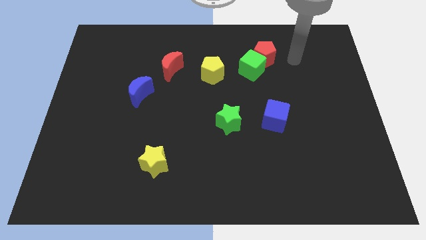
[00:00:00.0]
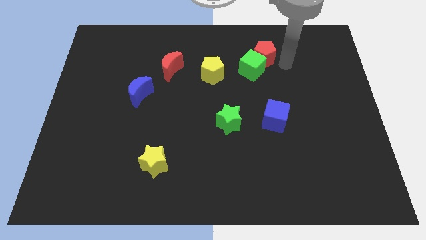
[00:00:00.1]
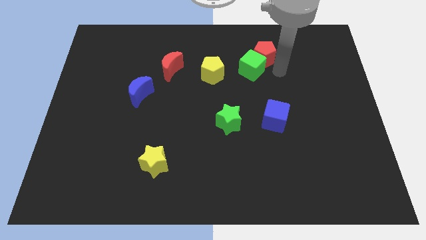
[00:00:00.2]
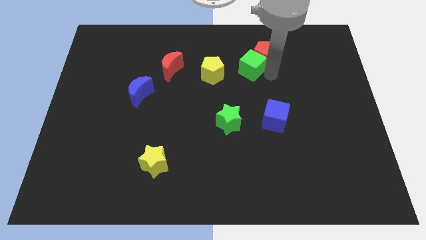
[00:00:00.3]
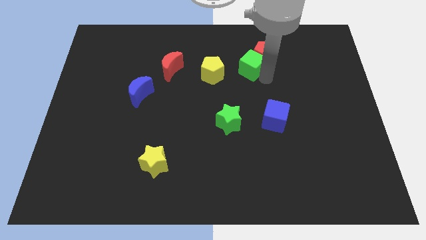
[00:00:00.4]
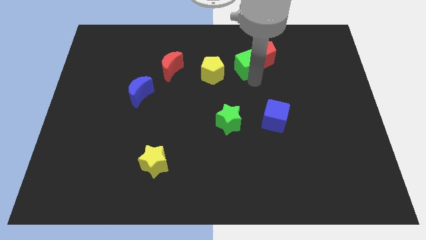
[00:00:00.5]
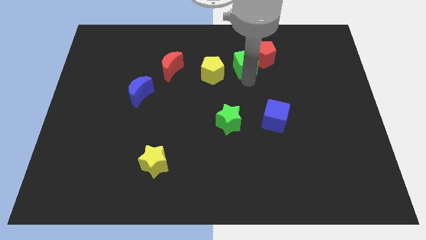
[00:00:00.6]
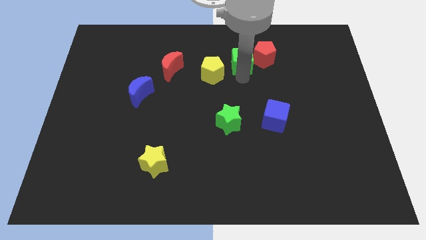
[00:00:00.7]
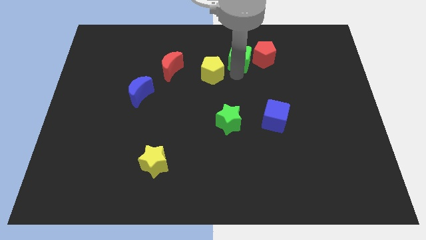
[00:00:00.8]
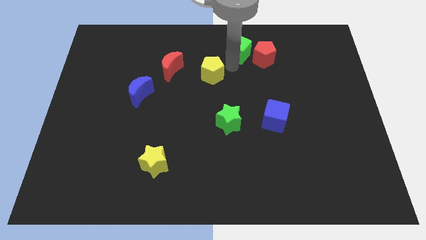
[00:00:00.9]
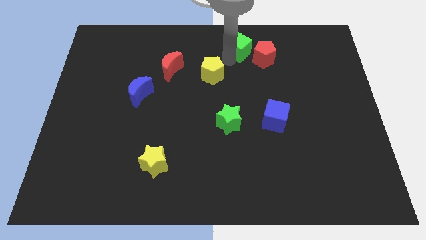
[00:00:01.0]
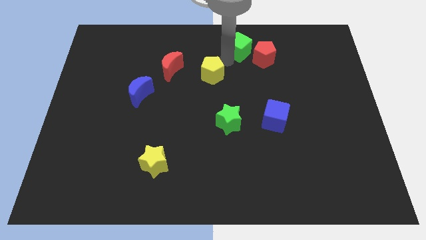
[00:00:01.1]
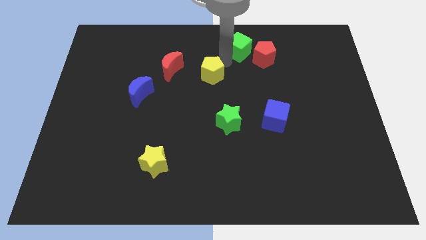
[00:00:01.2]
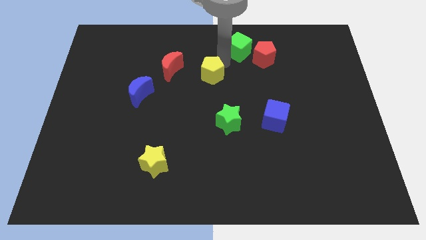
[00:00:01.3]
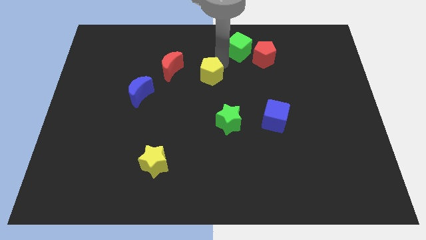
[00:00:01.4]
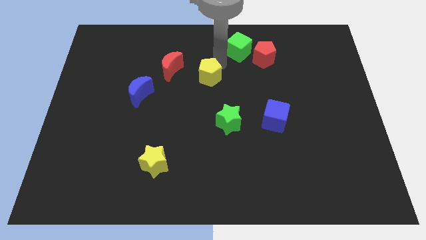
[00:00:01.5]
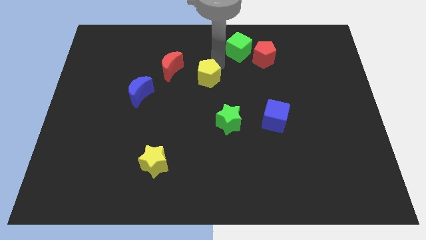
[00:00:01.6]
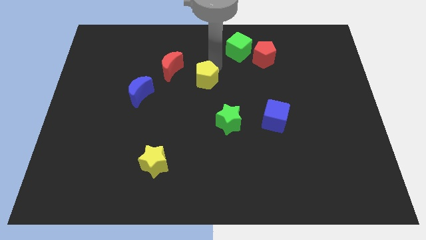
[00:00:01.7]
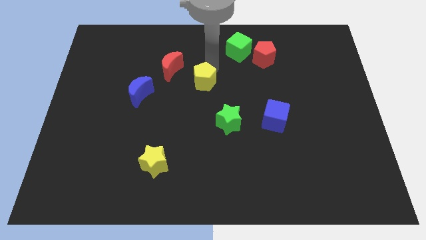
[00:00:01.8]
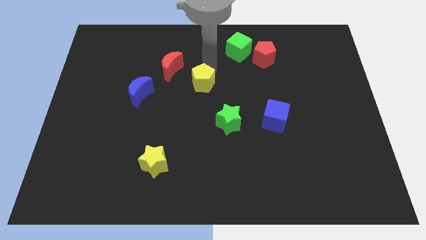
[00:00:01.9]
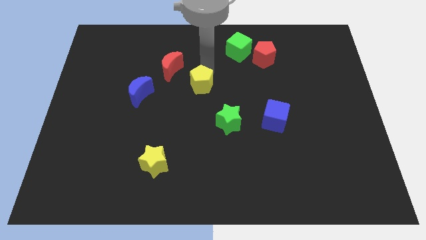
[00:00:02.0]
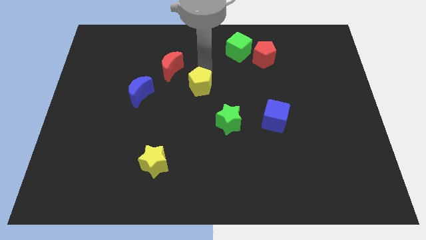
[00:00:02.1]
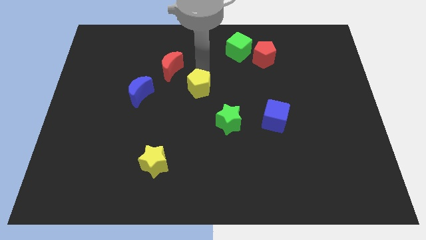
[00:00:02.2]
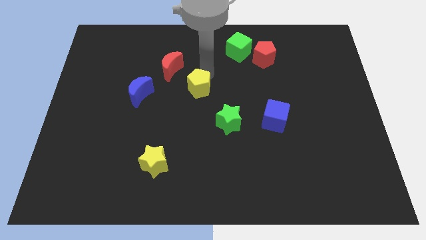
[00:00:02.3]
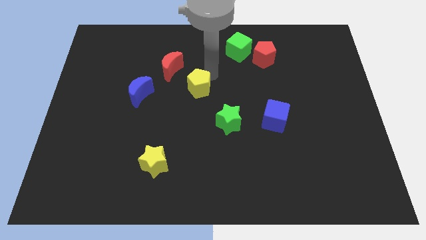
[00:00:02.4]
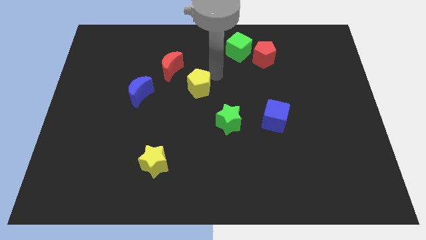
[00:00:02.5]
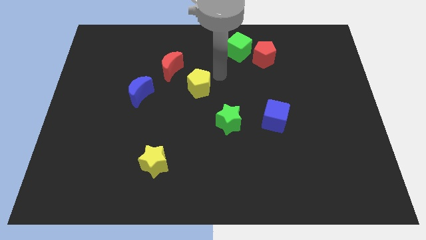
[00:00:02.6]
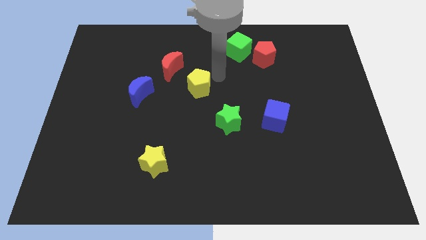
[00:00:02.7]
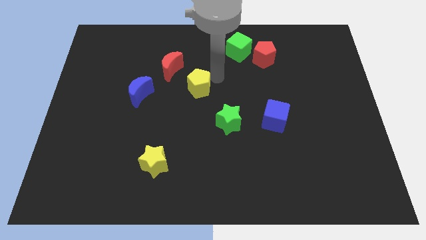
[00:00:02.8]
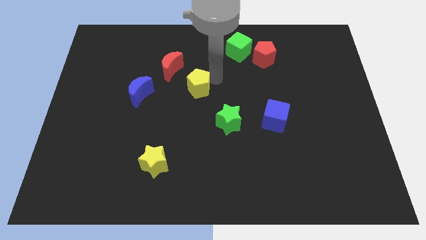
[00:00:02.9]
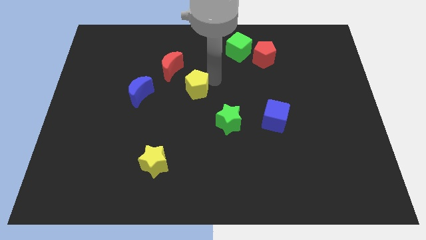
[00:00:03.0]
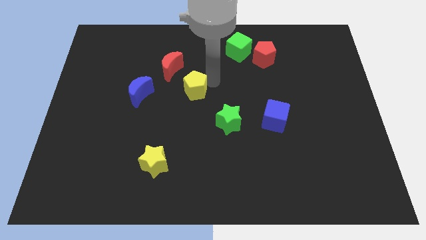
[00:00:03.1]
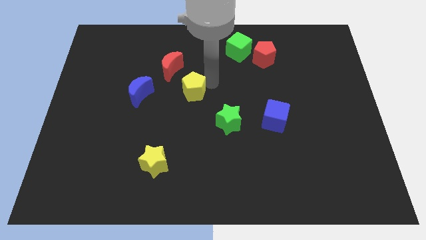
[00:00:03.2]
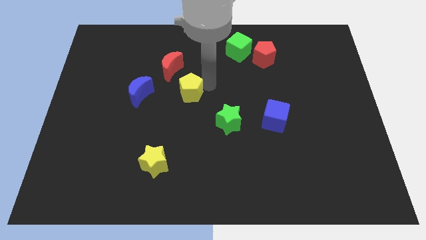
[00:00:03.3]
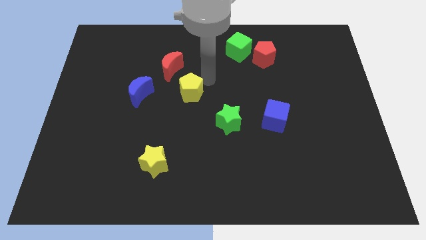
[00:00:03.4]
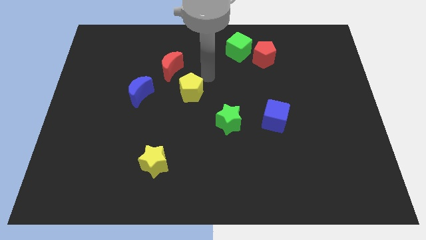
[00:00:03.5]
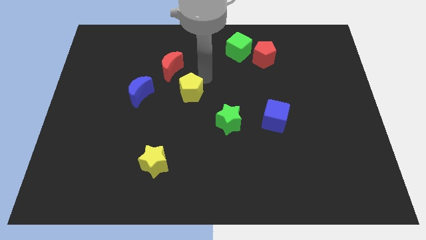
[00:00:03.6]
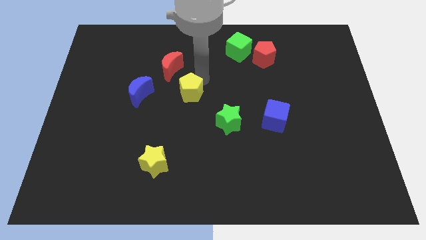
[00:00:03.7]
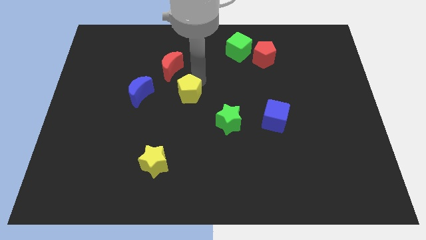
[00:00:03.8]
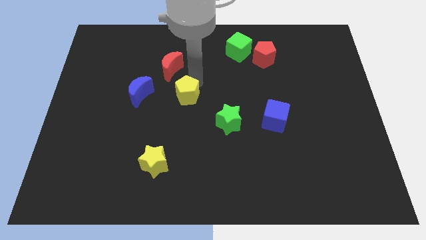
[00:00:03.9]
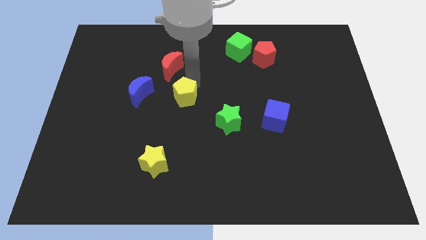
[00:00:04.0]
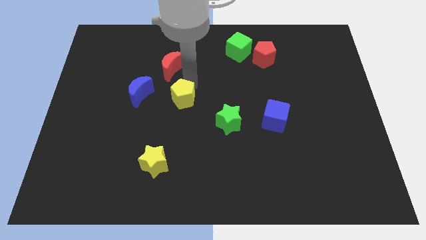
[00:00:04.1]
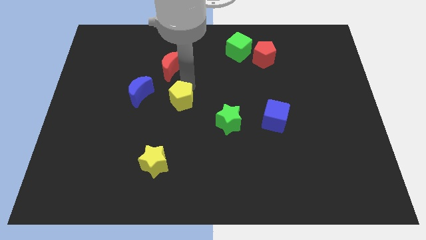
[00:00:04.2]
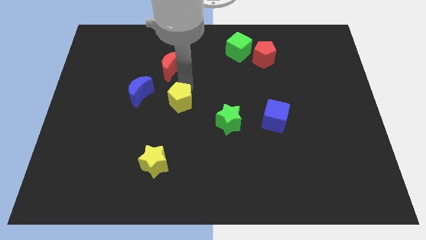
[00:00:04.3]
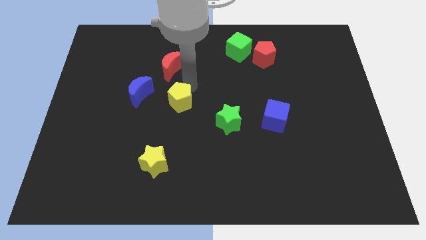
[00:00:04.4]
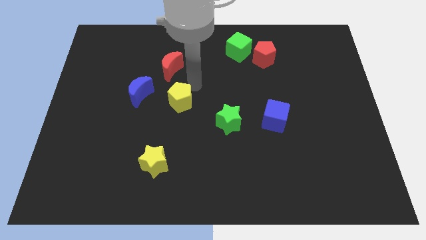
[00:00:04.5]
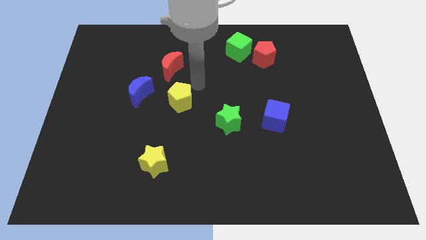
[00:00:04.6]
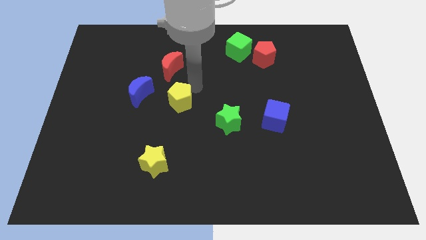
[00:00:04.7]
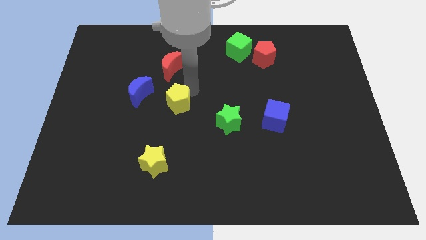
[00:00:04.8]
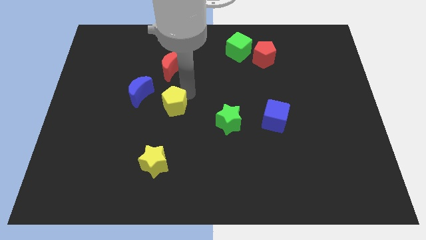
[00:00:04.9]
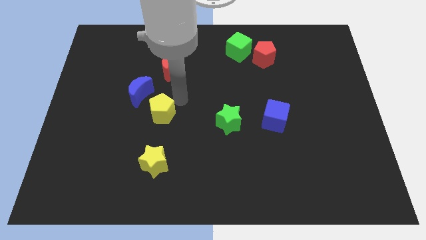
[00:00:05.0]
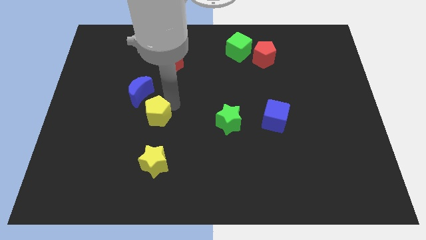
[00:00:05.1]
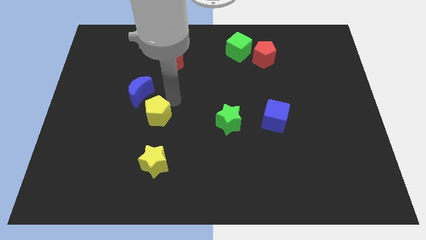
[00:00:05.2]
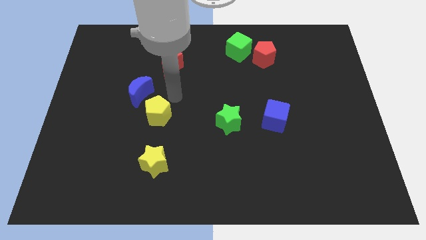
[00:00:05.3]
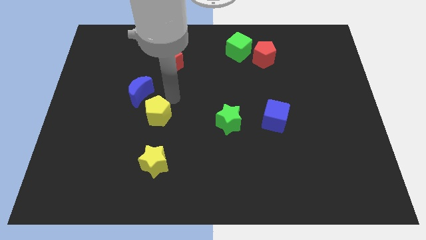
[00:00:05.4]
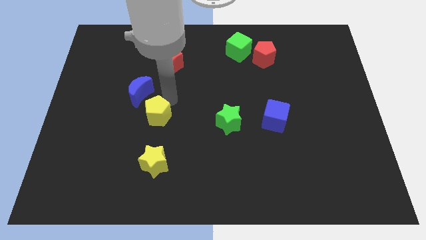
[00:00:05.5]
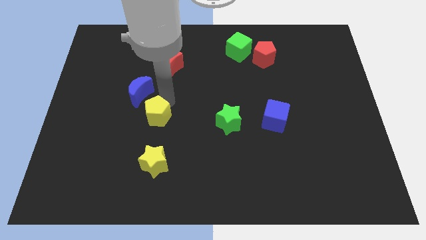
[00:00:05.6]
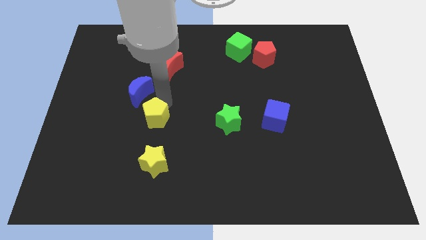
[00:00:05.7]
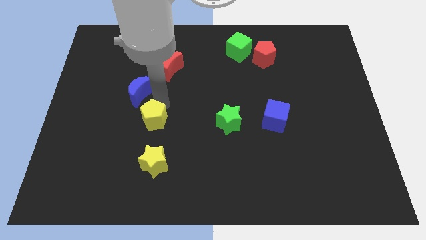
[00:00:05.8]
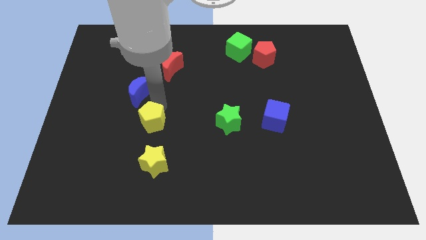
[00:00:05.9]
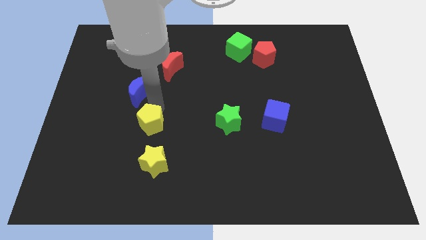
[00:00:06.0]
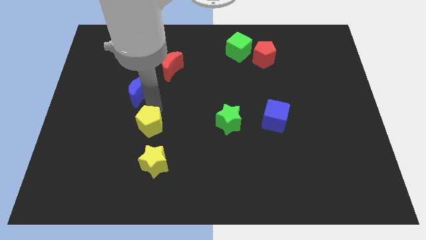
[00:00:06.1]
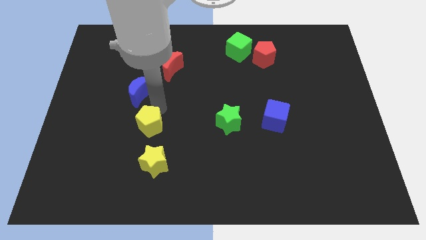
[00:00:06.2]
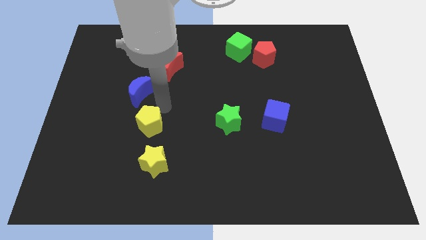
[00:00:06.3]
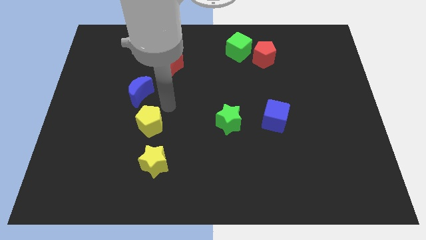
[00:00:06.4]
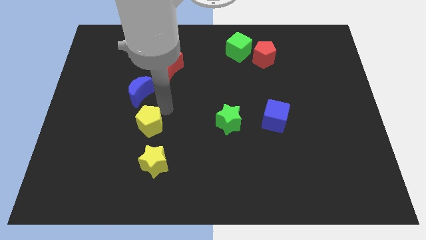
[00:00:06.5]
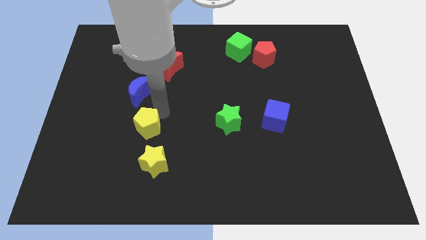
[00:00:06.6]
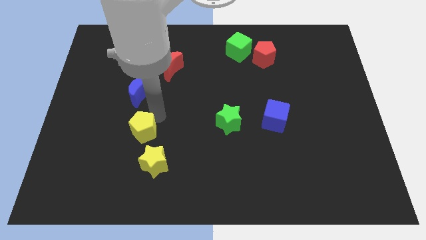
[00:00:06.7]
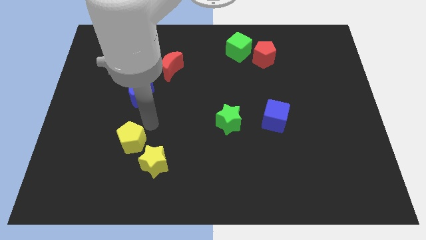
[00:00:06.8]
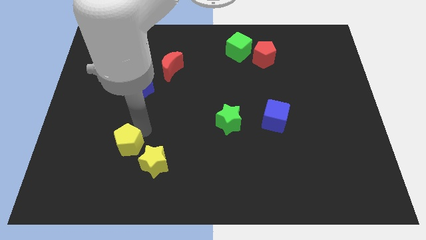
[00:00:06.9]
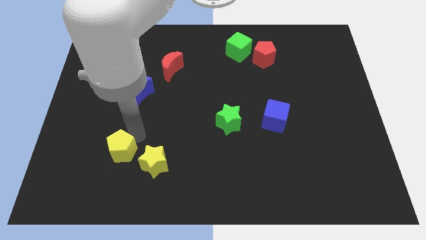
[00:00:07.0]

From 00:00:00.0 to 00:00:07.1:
slide the yellow pentagon to the left of the yellow star
